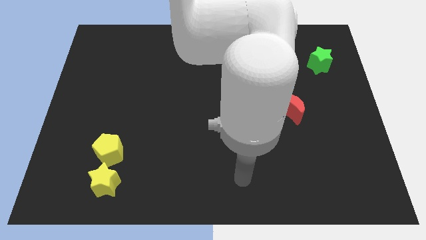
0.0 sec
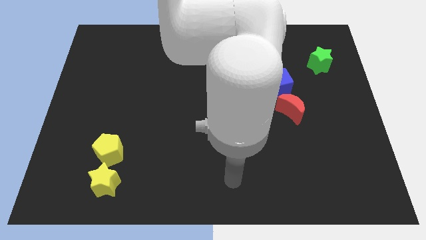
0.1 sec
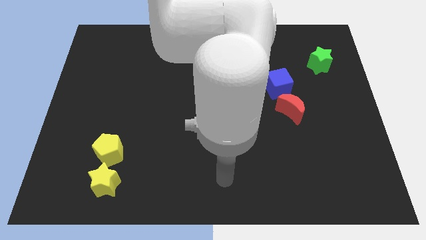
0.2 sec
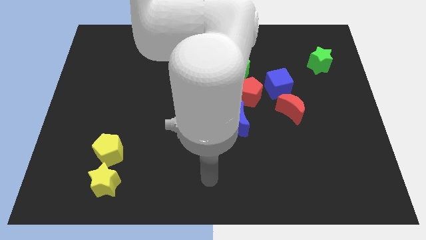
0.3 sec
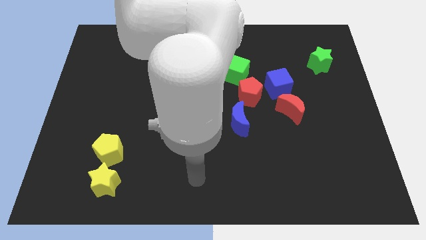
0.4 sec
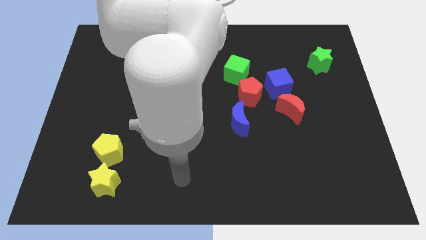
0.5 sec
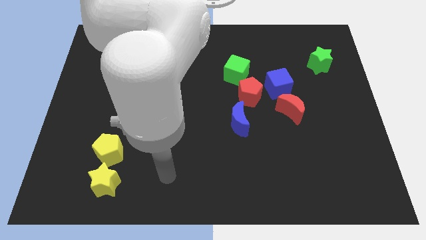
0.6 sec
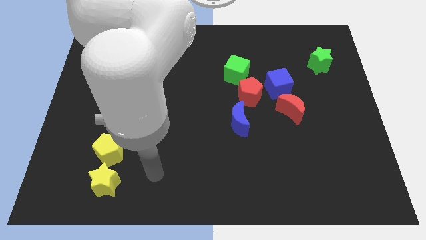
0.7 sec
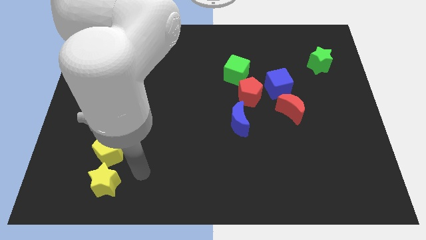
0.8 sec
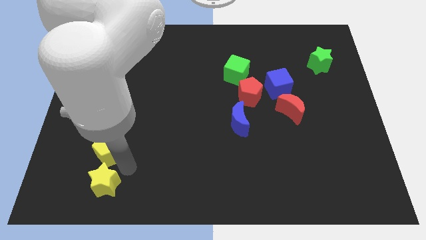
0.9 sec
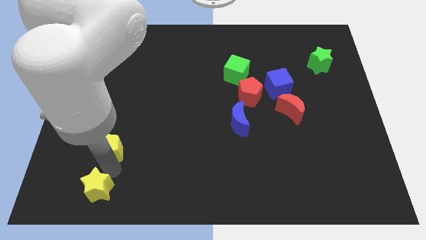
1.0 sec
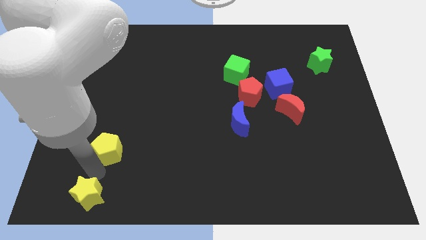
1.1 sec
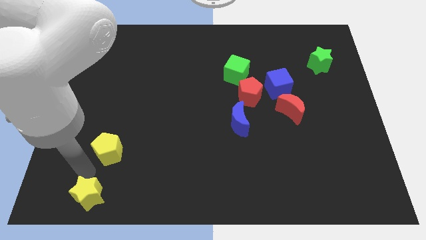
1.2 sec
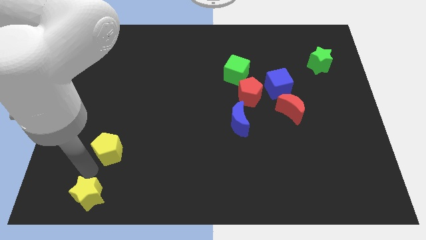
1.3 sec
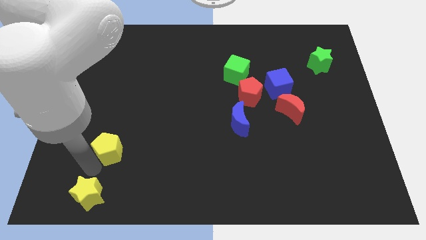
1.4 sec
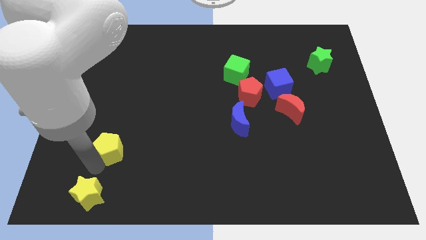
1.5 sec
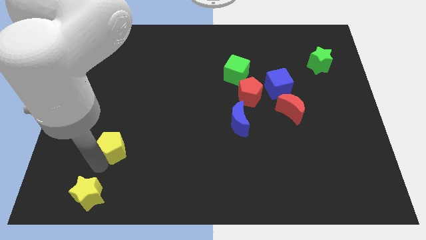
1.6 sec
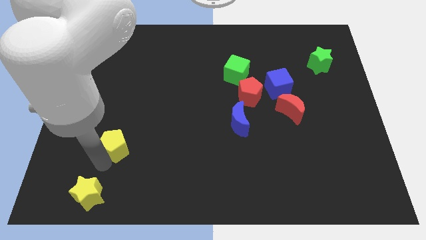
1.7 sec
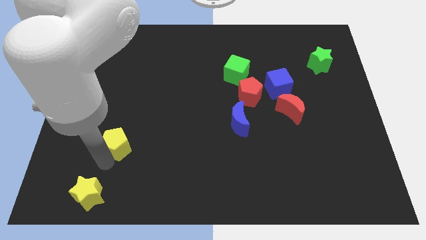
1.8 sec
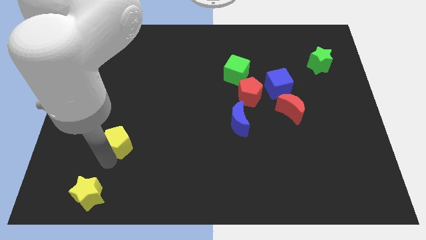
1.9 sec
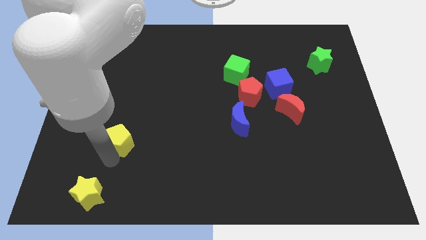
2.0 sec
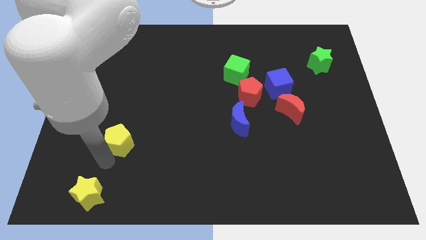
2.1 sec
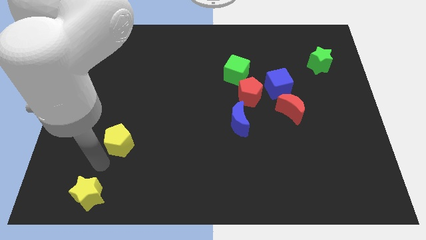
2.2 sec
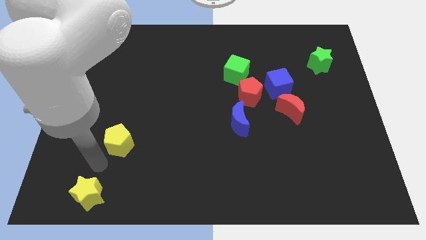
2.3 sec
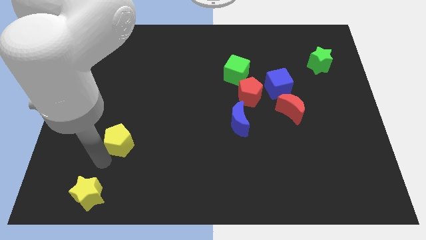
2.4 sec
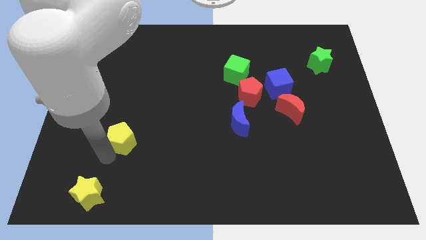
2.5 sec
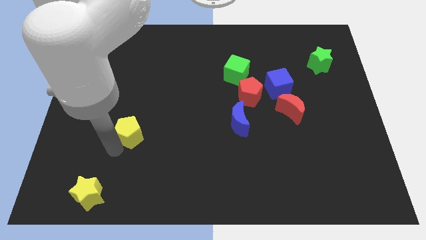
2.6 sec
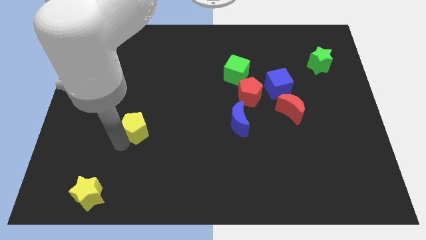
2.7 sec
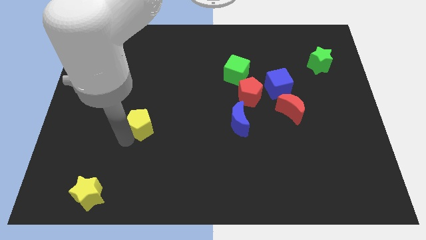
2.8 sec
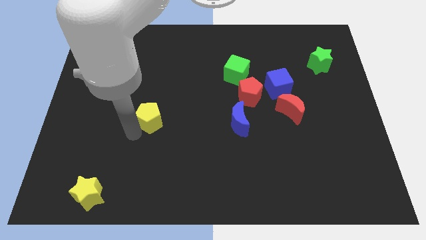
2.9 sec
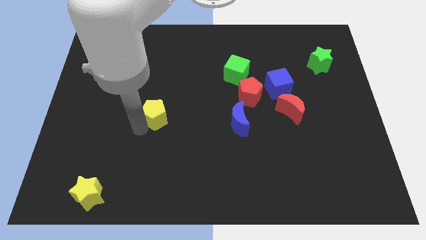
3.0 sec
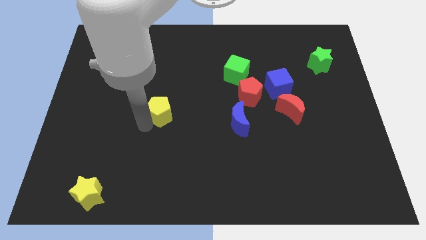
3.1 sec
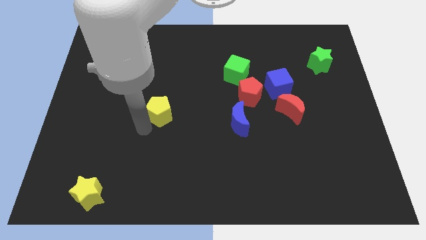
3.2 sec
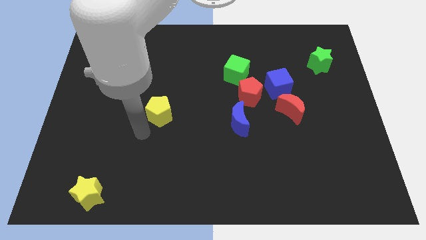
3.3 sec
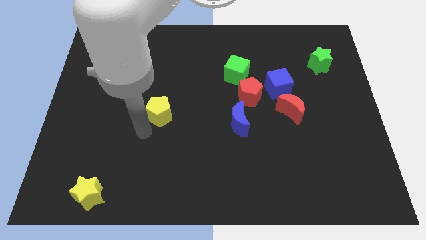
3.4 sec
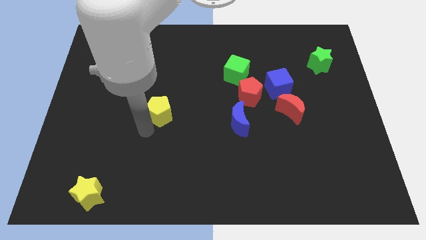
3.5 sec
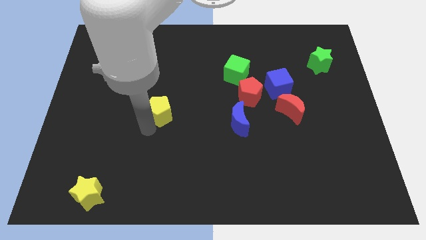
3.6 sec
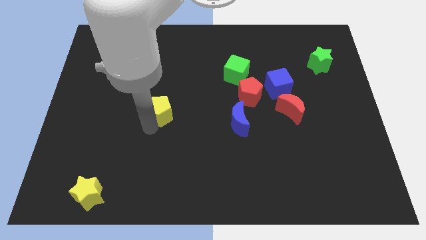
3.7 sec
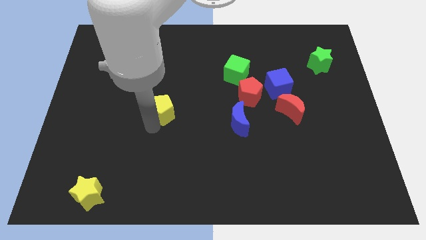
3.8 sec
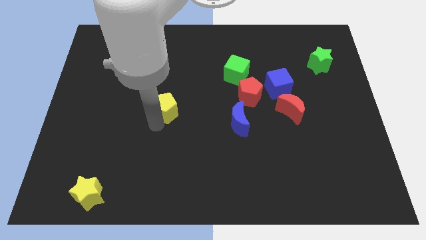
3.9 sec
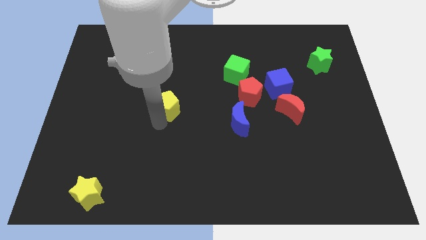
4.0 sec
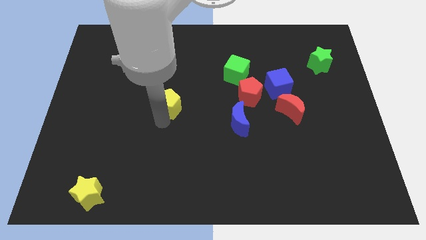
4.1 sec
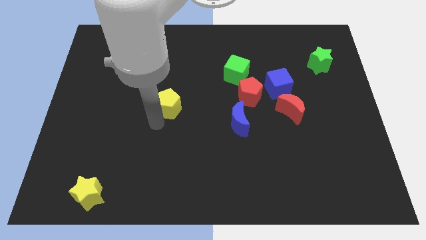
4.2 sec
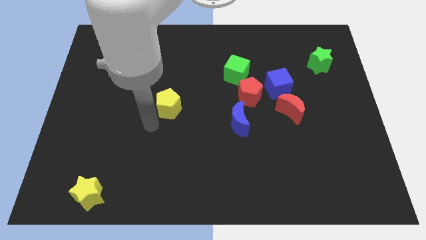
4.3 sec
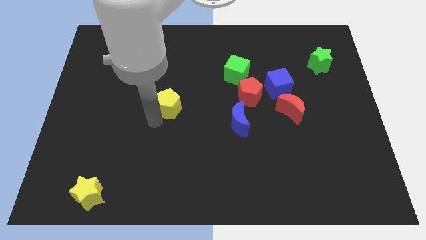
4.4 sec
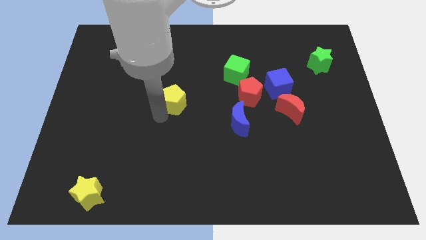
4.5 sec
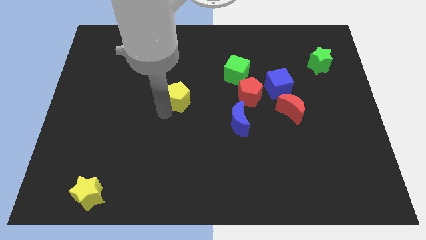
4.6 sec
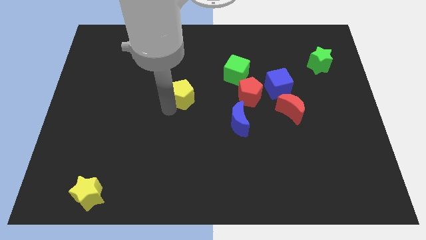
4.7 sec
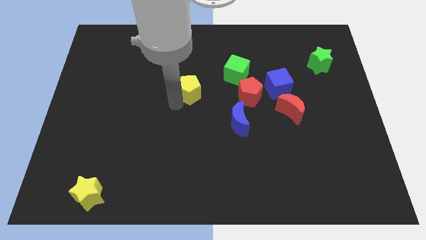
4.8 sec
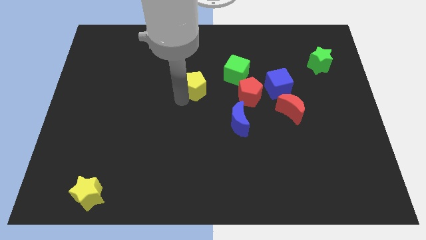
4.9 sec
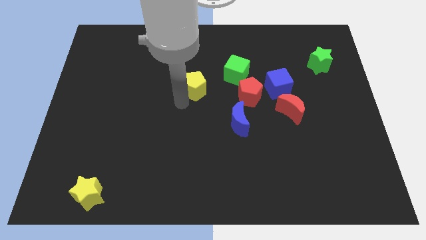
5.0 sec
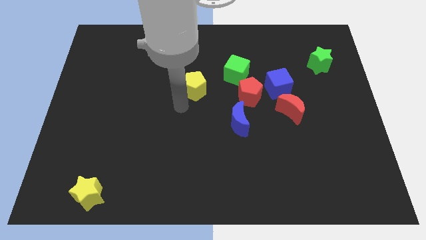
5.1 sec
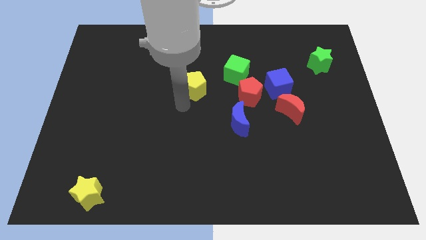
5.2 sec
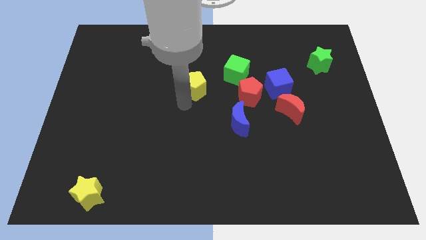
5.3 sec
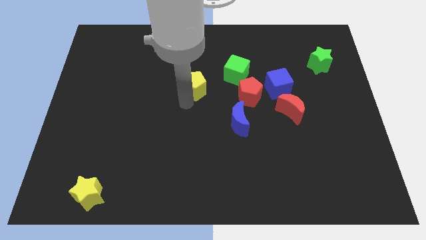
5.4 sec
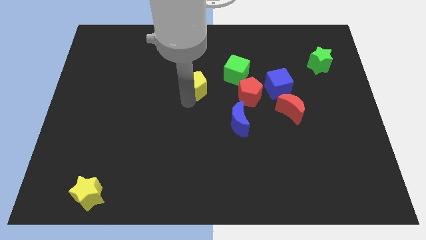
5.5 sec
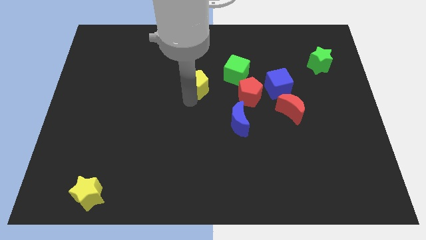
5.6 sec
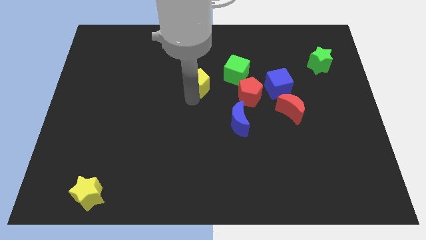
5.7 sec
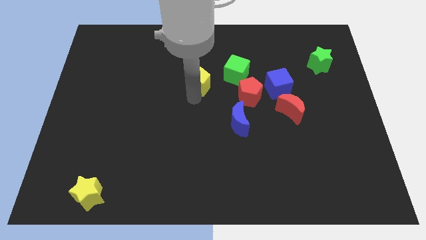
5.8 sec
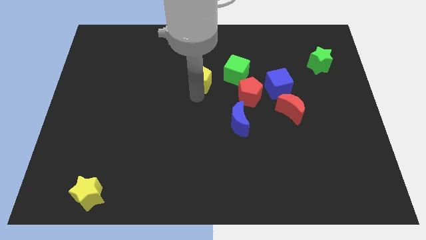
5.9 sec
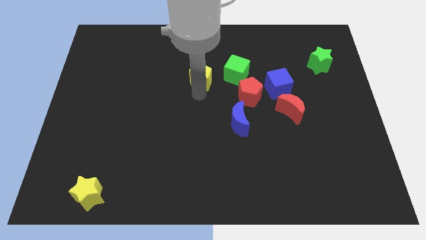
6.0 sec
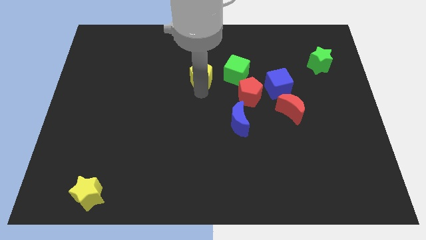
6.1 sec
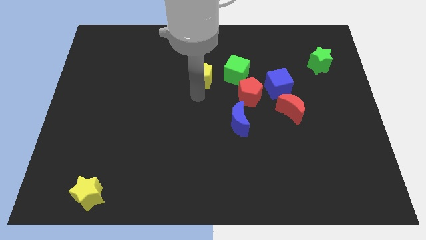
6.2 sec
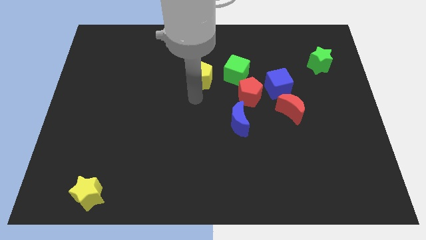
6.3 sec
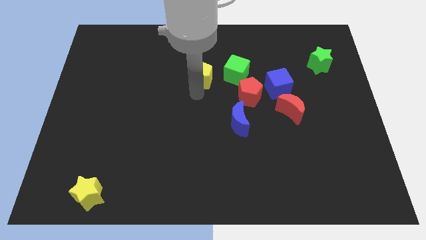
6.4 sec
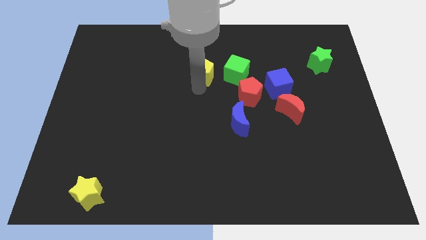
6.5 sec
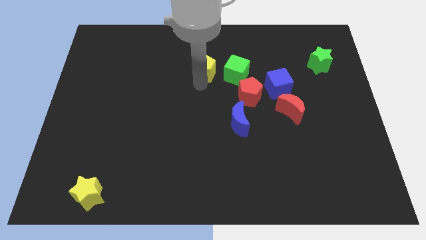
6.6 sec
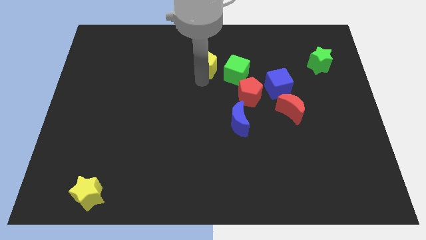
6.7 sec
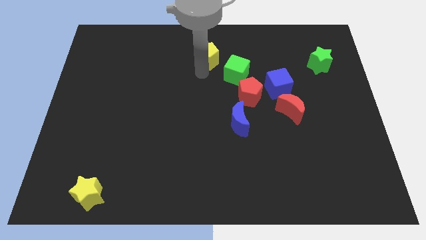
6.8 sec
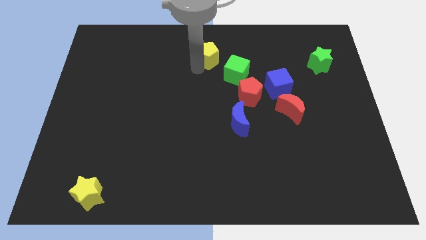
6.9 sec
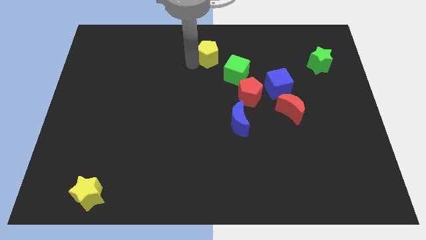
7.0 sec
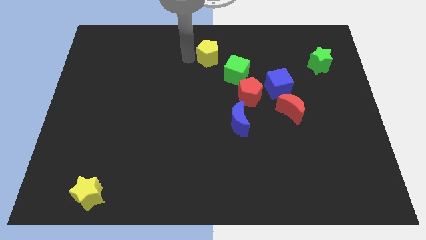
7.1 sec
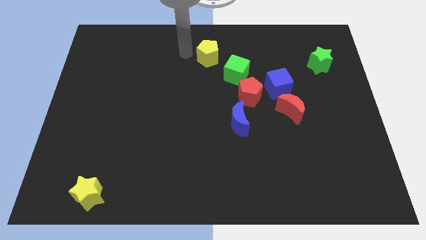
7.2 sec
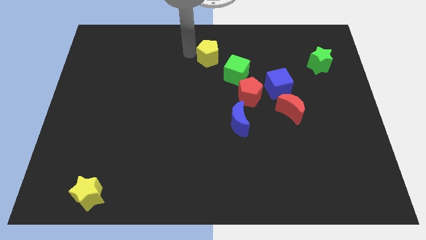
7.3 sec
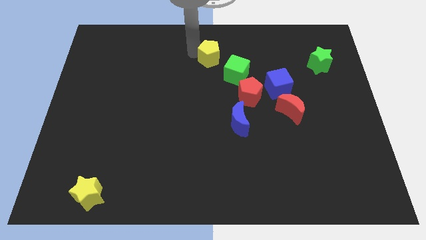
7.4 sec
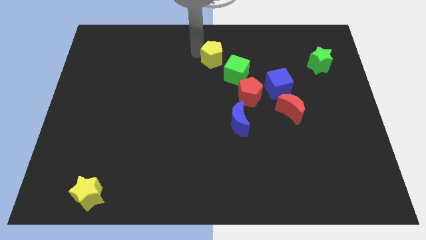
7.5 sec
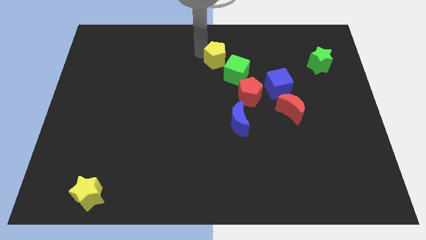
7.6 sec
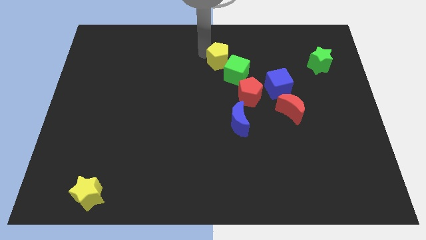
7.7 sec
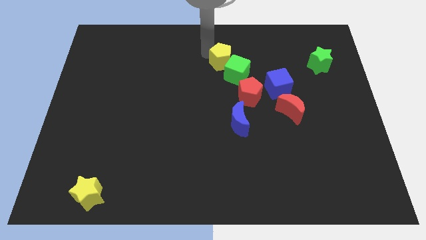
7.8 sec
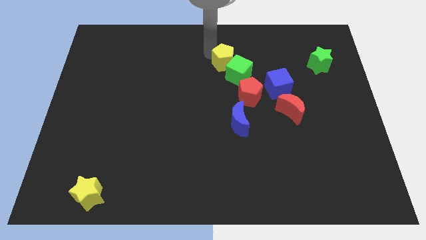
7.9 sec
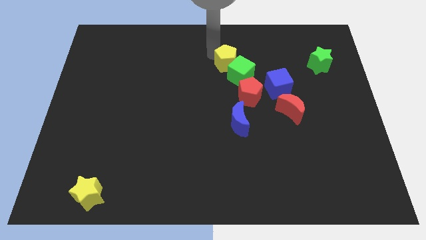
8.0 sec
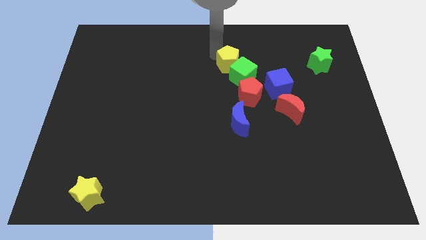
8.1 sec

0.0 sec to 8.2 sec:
slide the yellow pentagon to the top side of the red pentagon
